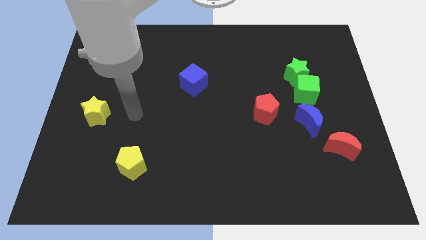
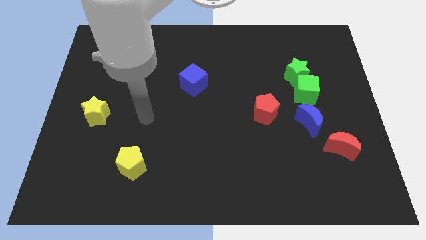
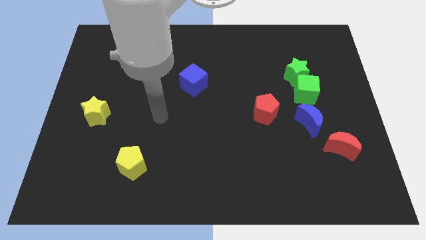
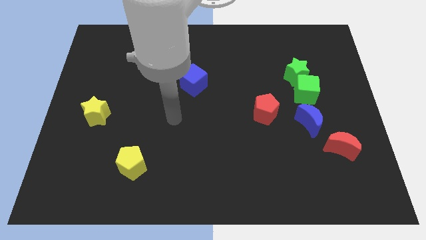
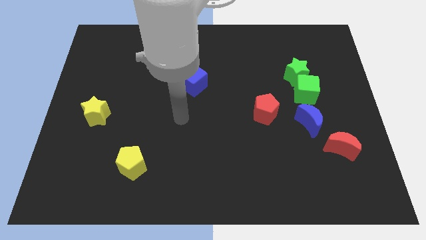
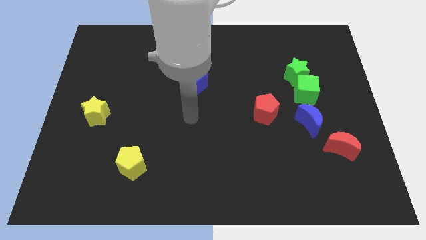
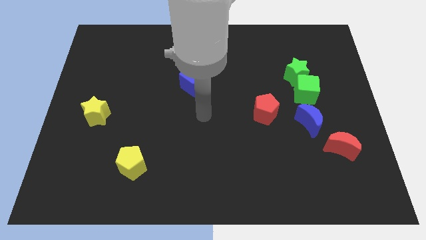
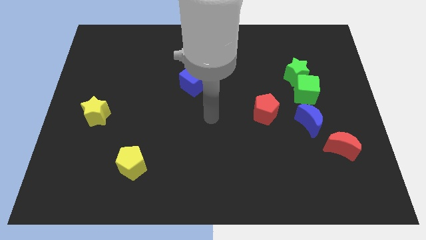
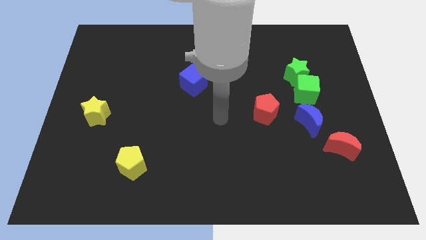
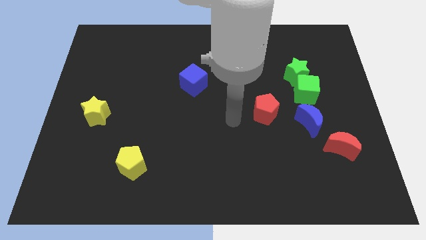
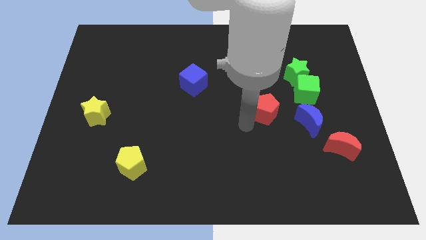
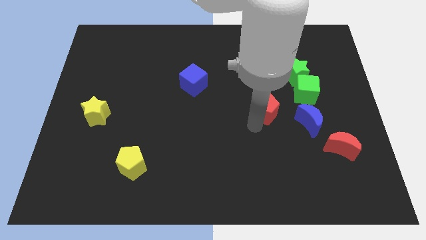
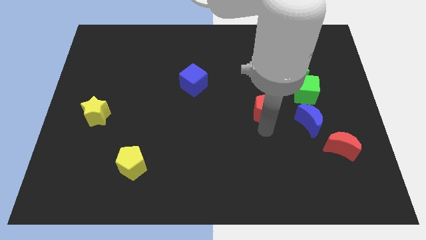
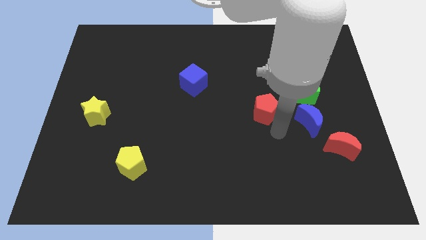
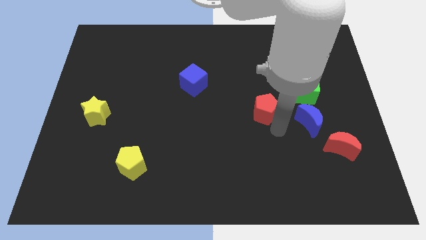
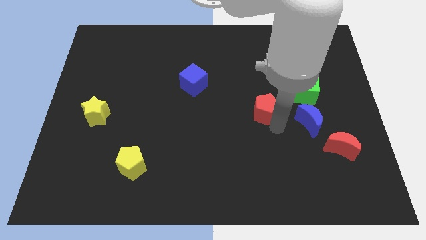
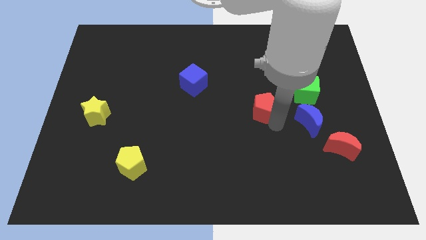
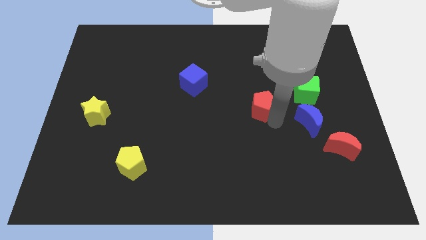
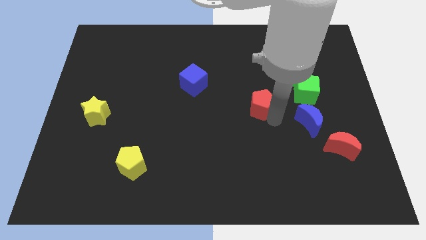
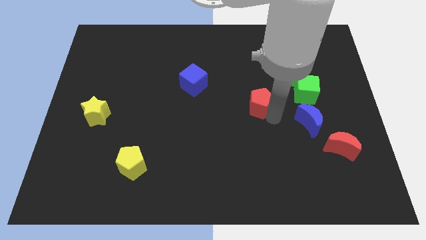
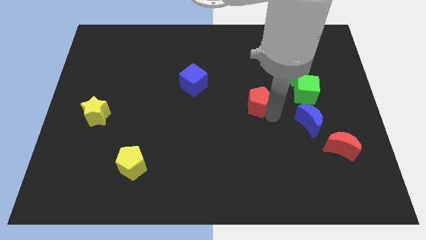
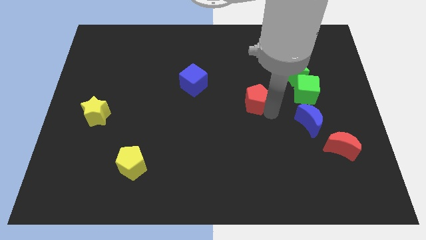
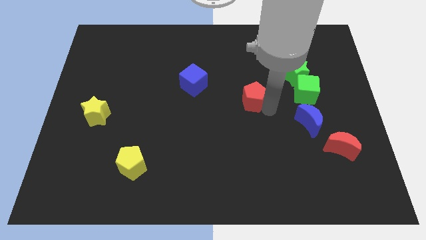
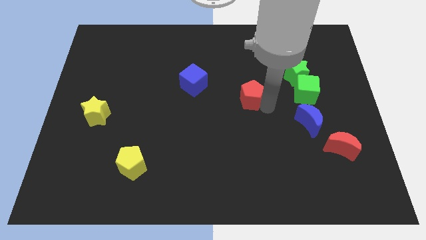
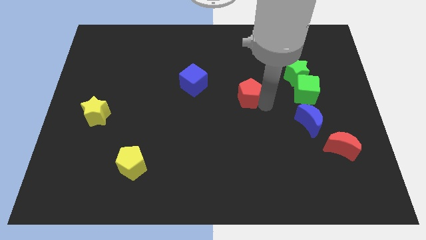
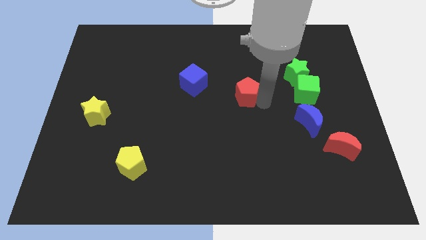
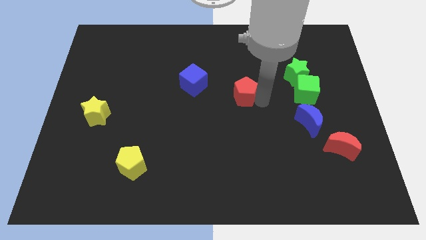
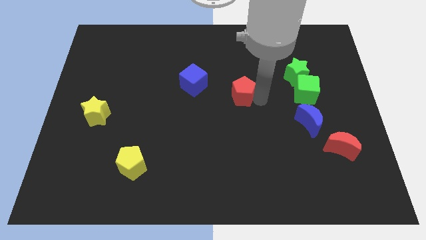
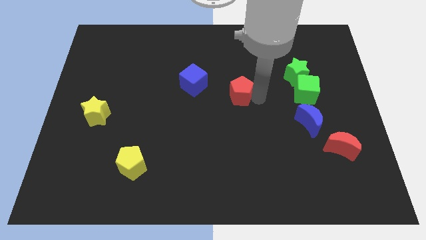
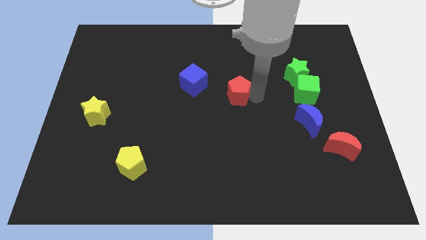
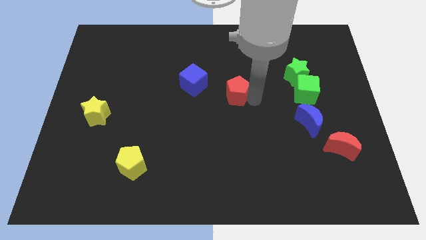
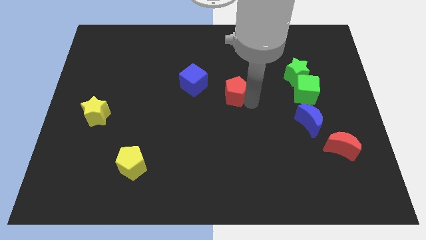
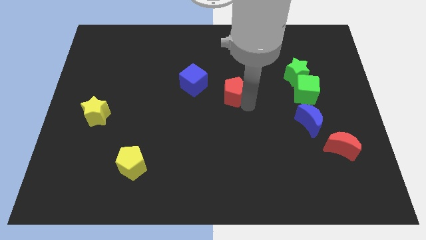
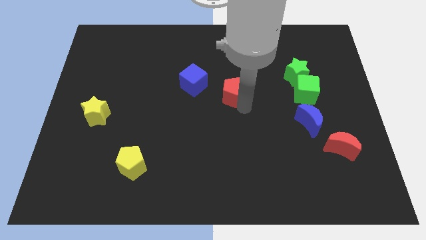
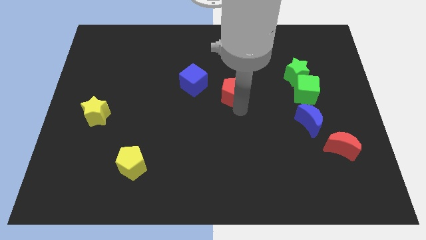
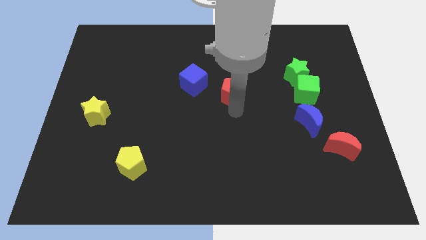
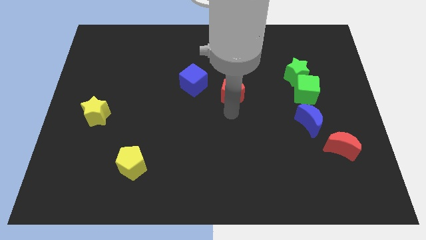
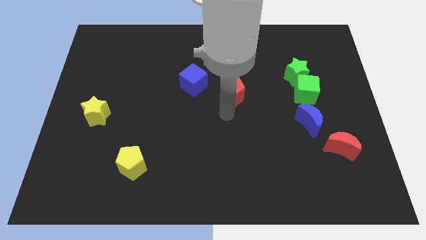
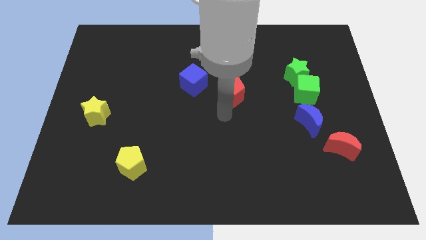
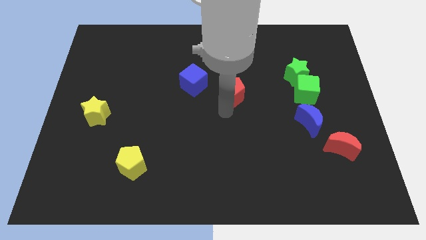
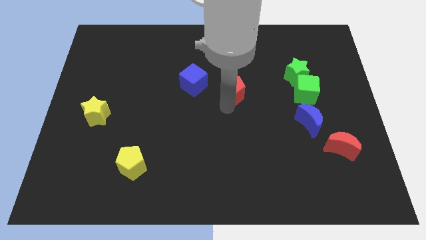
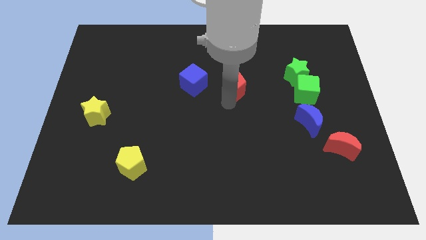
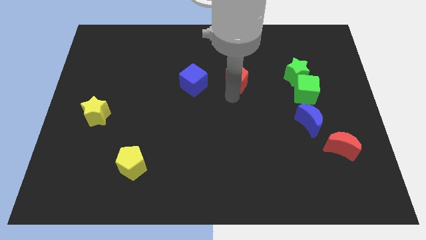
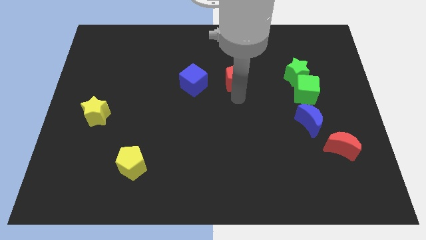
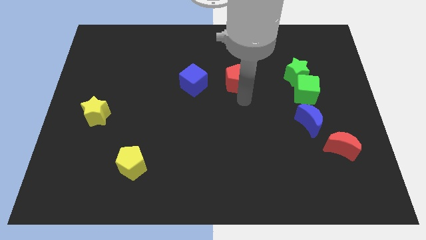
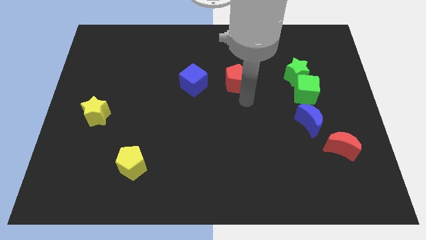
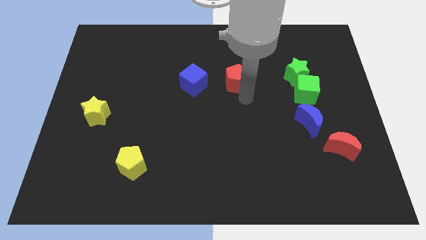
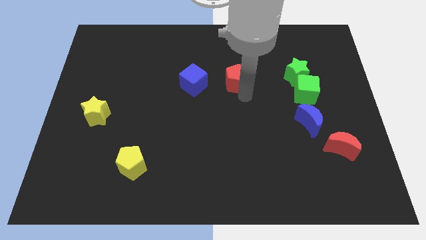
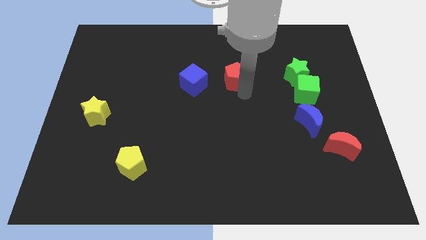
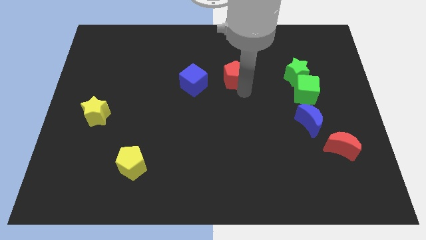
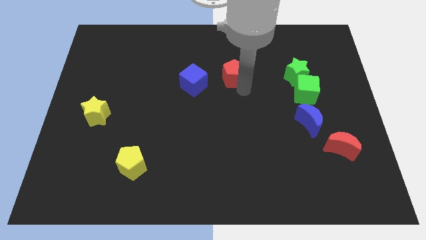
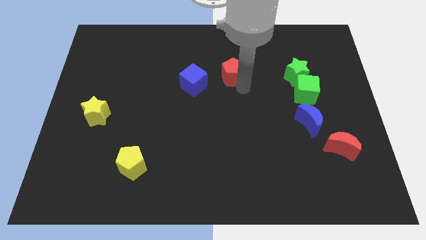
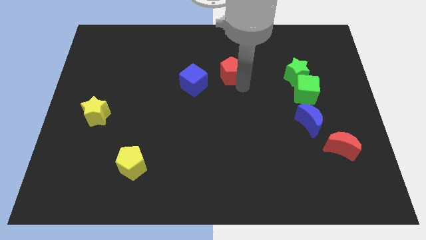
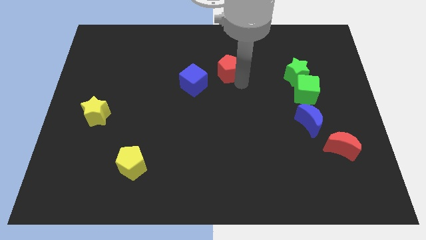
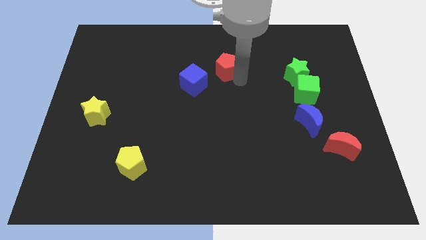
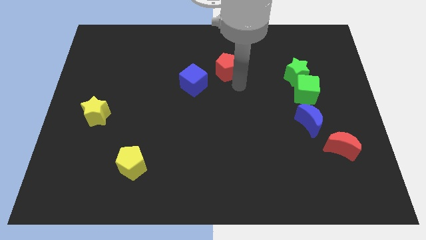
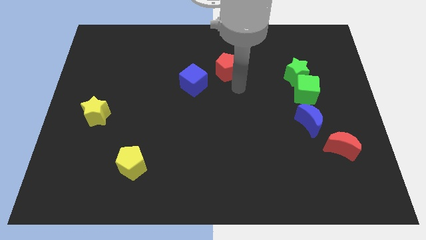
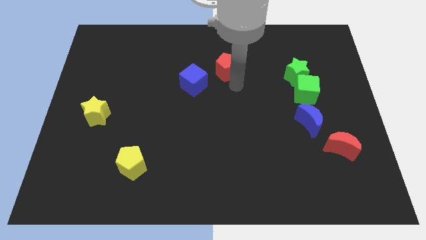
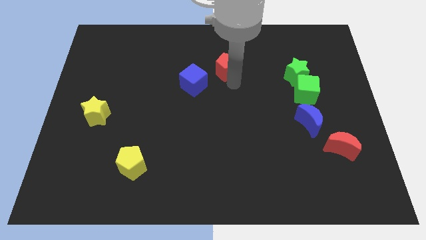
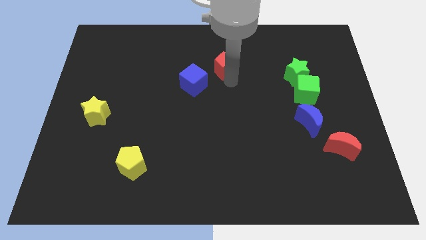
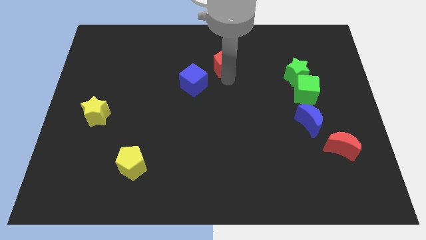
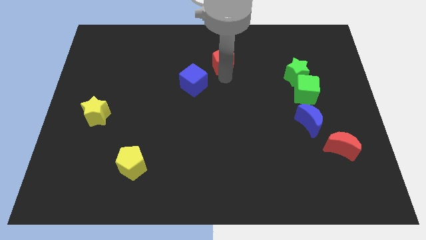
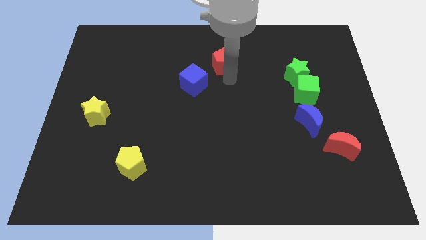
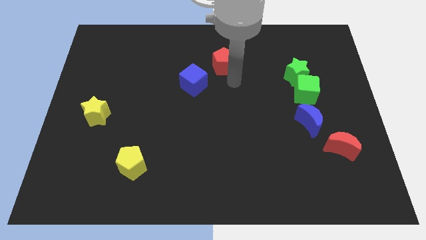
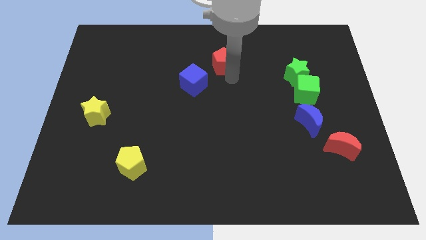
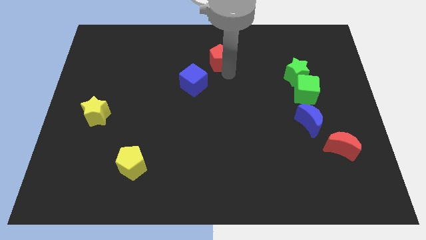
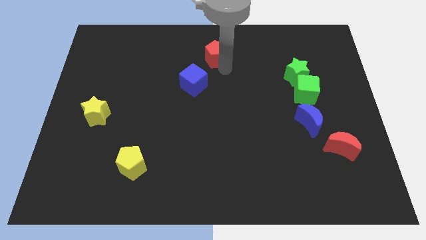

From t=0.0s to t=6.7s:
slide the red pentagon to the top

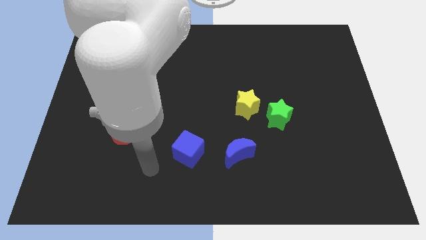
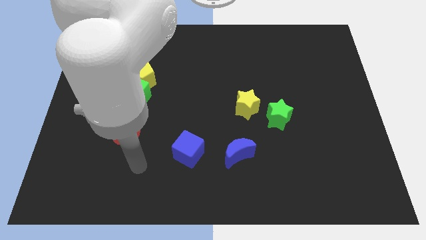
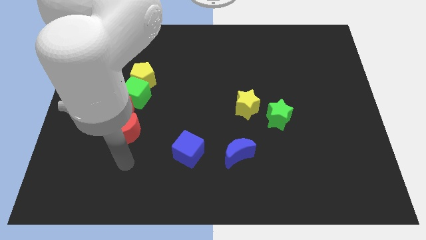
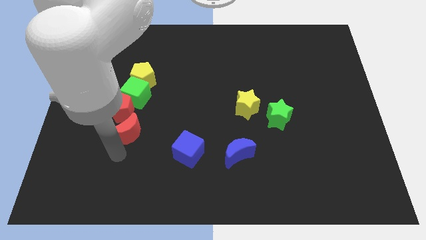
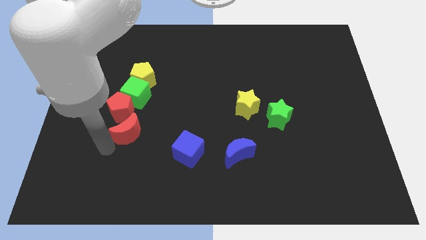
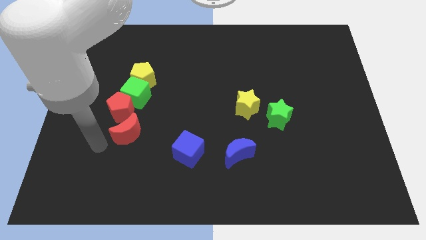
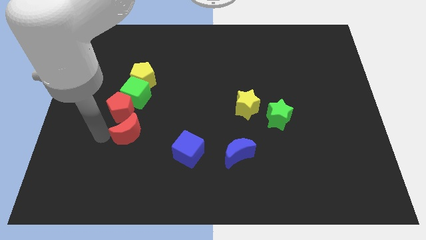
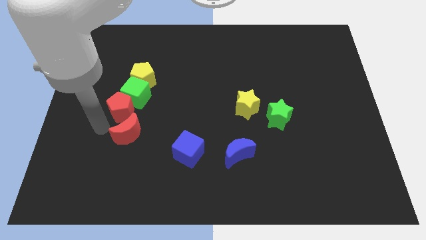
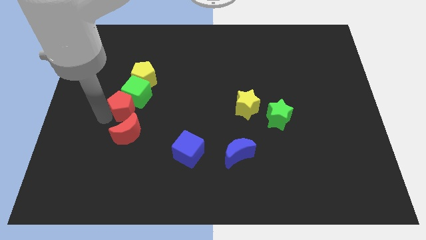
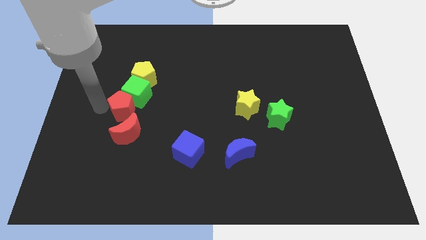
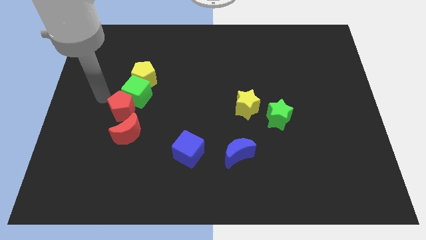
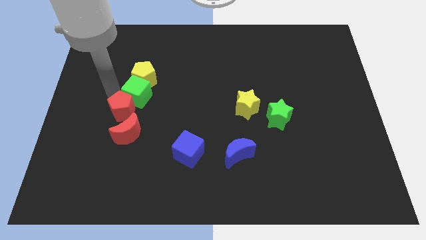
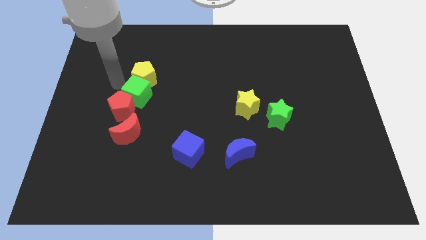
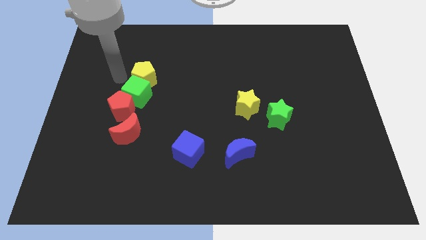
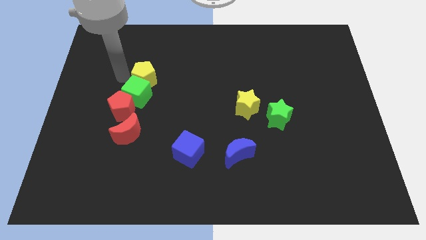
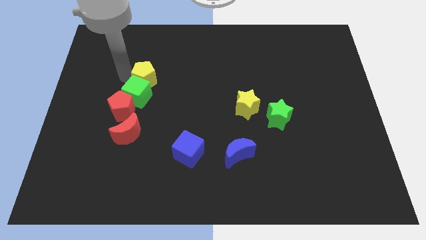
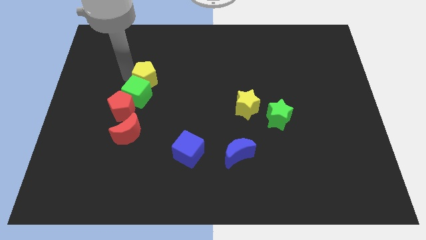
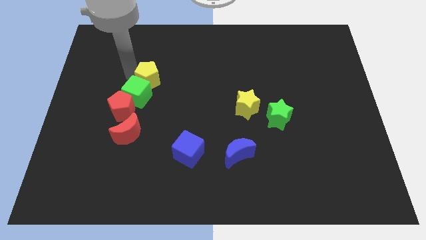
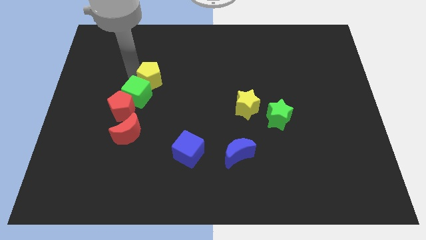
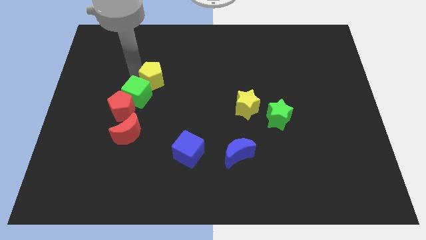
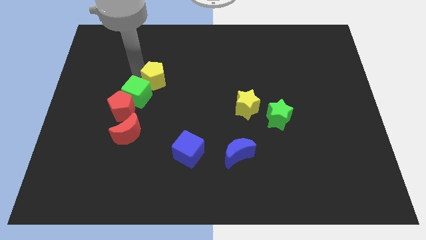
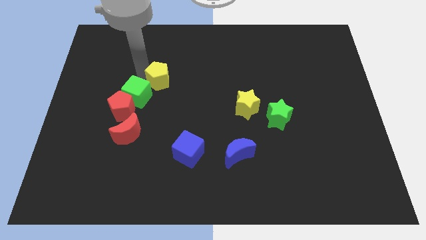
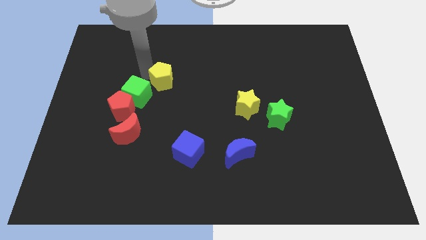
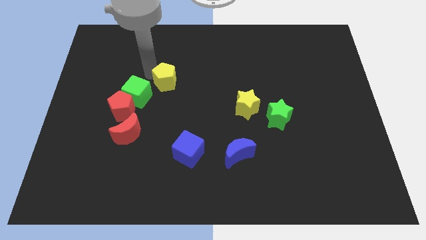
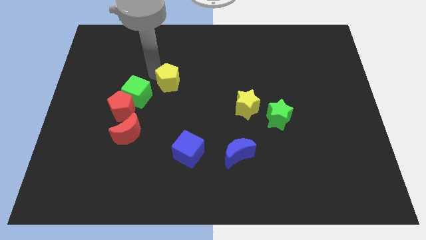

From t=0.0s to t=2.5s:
move the yellow pentagon to the center of the board
